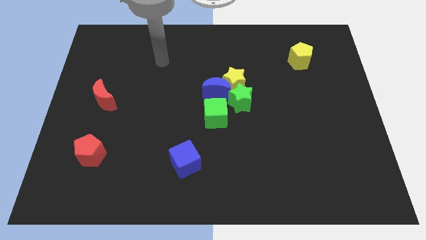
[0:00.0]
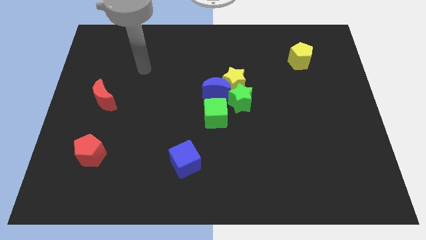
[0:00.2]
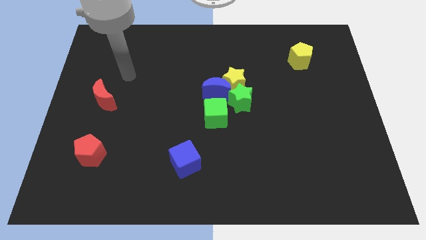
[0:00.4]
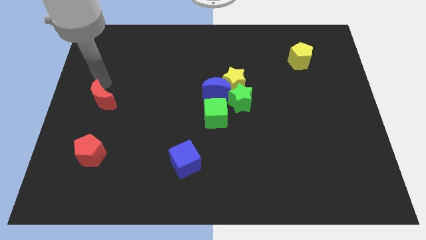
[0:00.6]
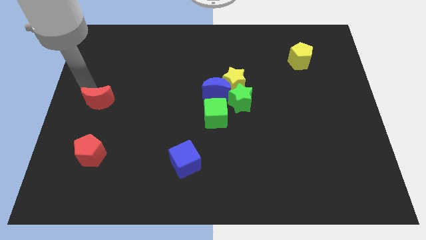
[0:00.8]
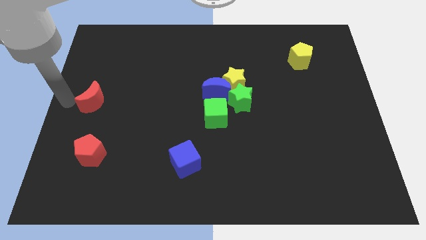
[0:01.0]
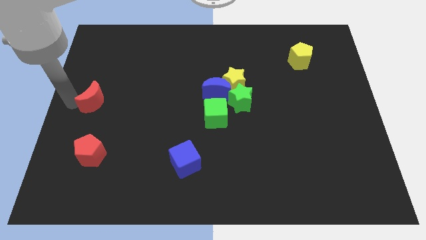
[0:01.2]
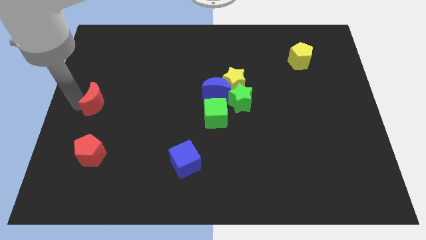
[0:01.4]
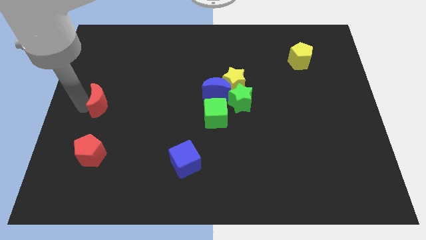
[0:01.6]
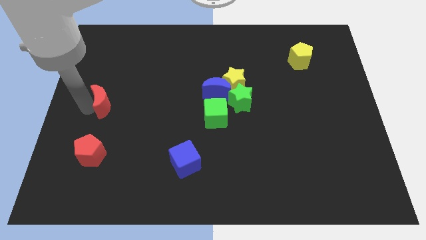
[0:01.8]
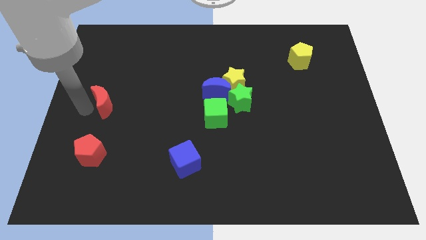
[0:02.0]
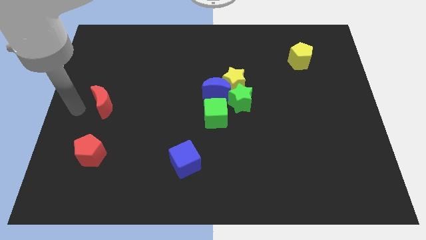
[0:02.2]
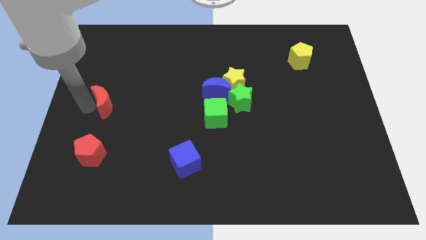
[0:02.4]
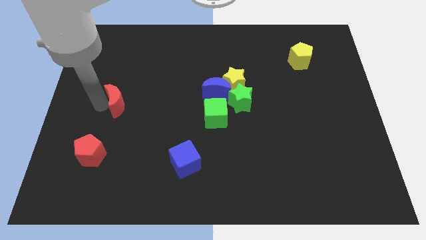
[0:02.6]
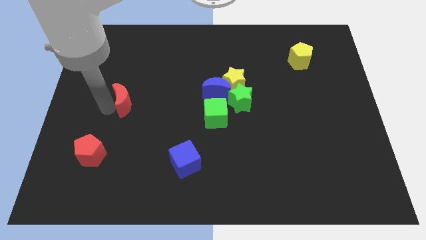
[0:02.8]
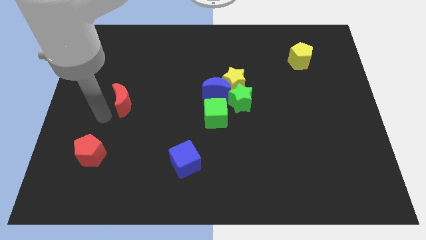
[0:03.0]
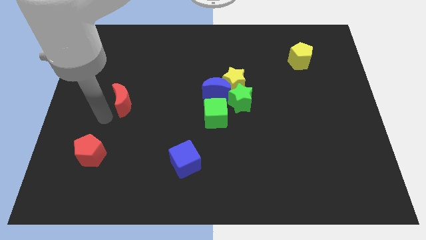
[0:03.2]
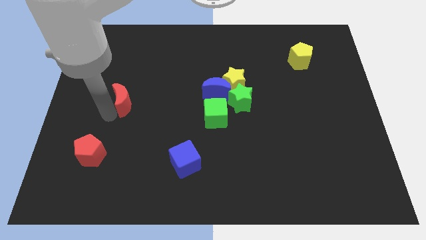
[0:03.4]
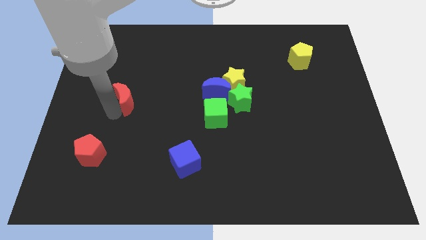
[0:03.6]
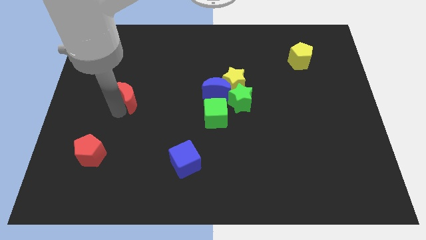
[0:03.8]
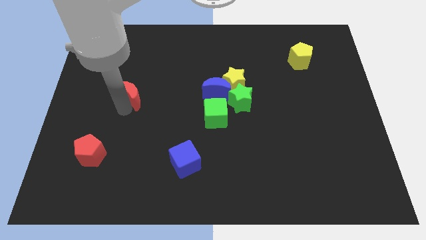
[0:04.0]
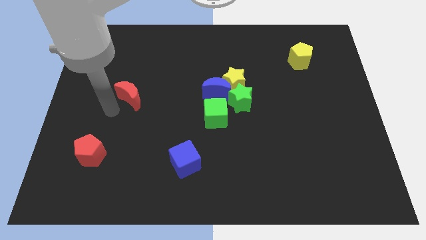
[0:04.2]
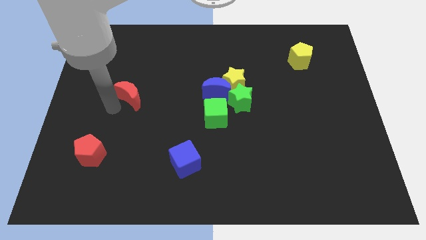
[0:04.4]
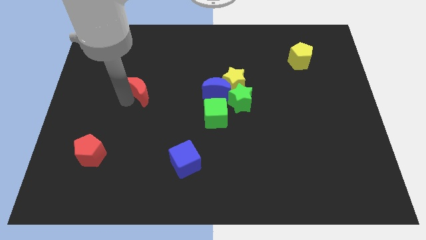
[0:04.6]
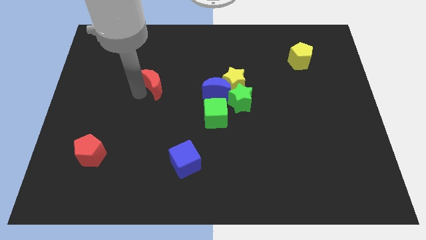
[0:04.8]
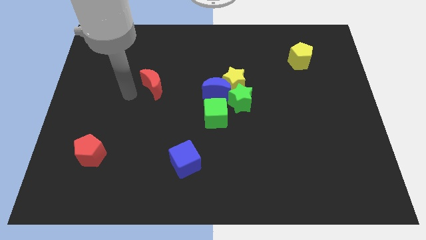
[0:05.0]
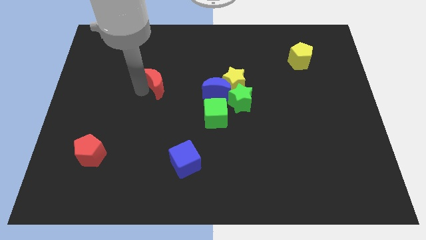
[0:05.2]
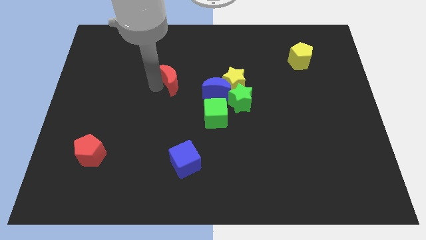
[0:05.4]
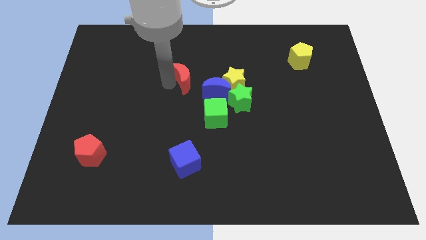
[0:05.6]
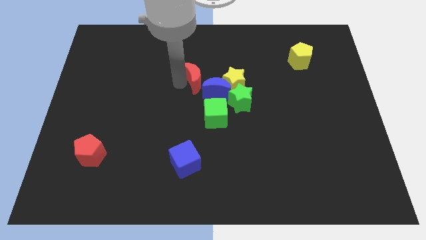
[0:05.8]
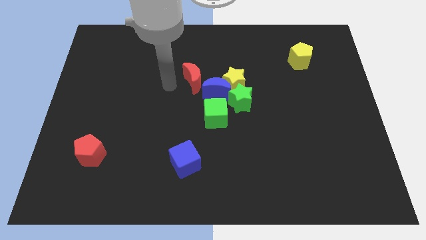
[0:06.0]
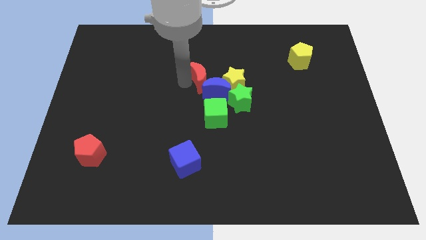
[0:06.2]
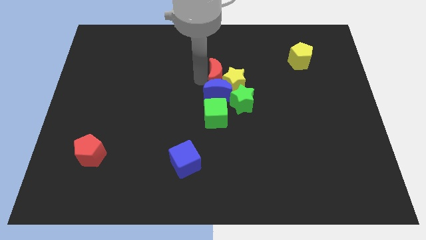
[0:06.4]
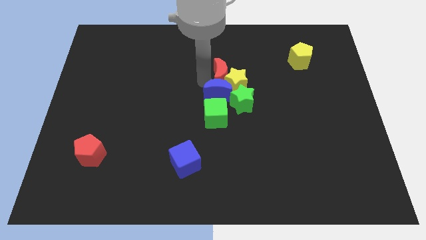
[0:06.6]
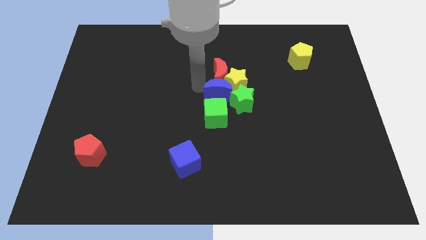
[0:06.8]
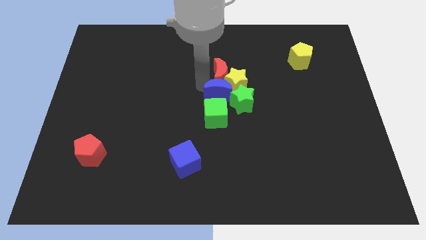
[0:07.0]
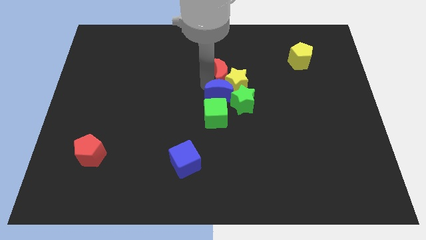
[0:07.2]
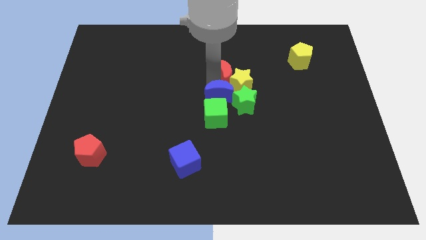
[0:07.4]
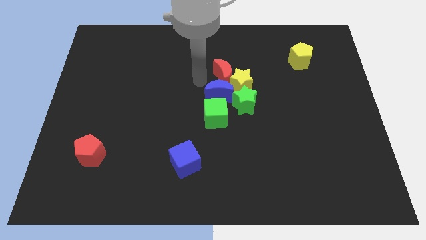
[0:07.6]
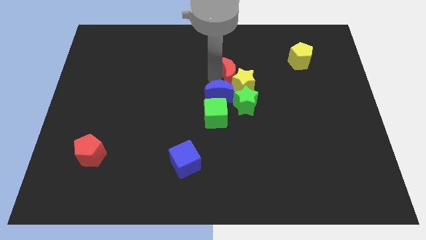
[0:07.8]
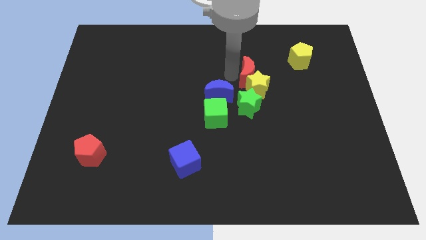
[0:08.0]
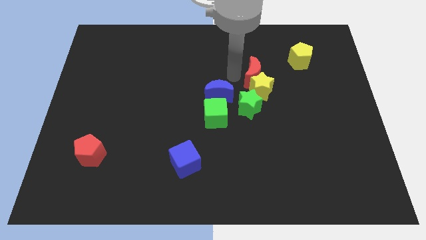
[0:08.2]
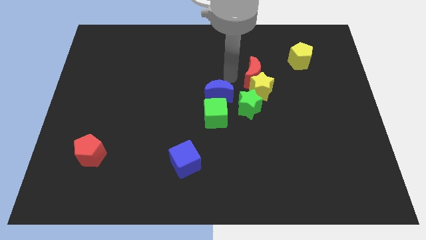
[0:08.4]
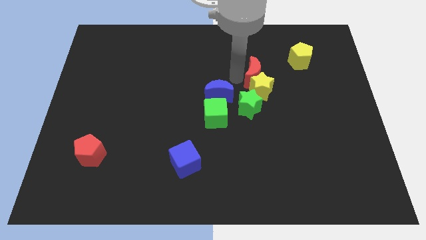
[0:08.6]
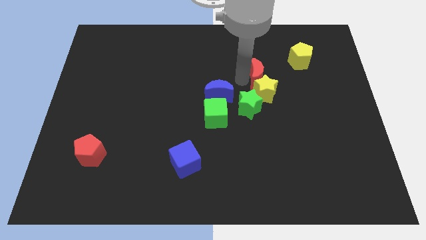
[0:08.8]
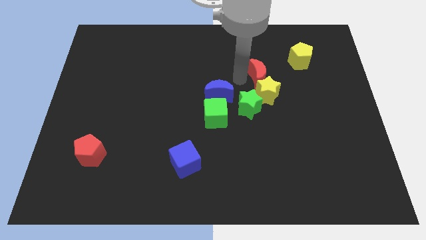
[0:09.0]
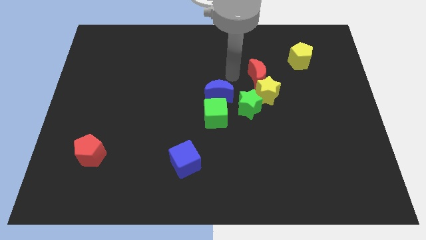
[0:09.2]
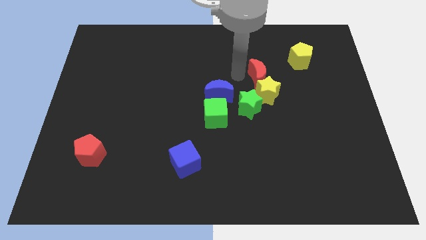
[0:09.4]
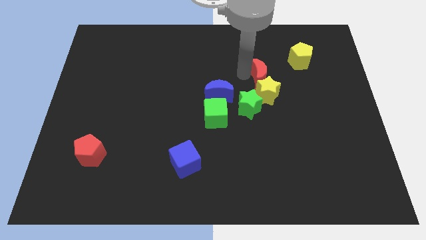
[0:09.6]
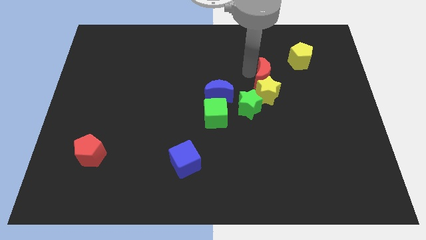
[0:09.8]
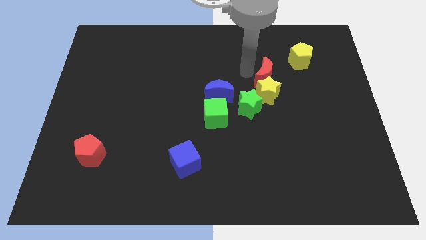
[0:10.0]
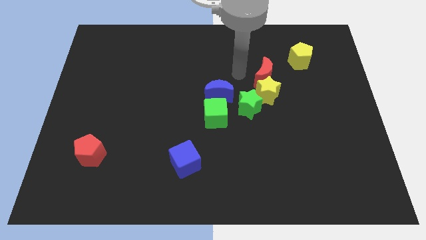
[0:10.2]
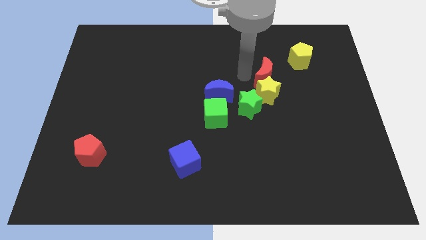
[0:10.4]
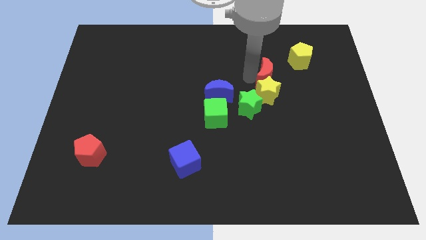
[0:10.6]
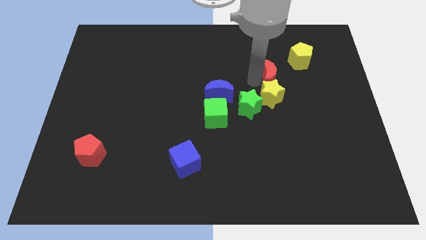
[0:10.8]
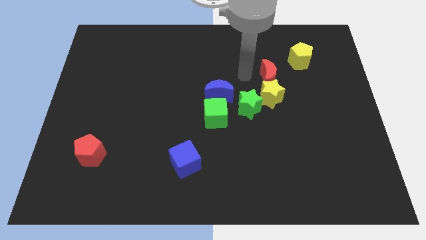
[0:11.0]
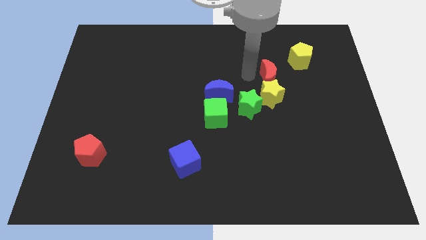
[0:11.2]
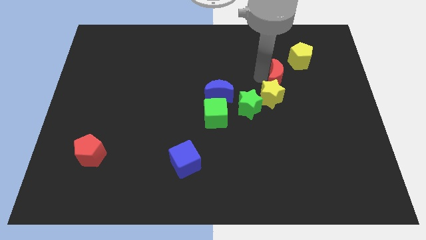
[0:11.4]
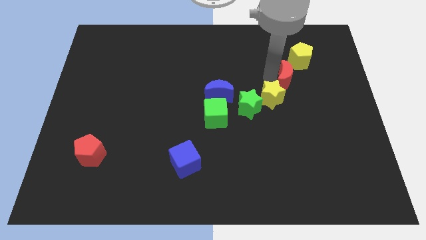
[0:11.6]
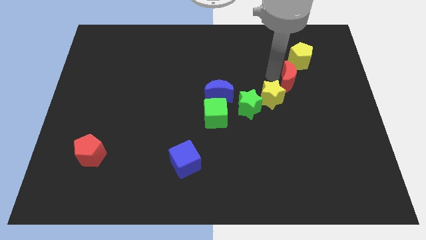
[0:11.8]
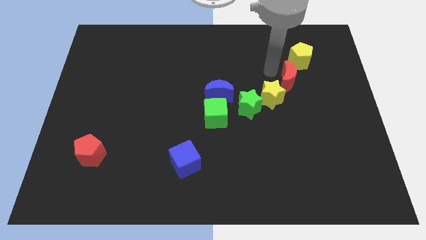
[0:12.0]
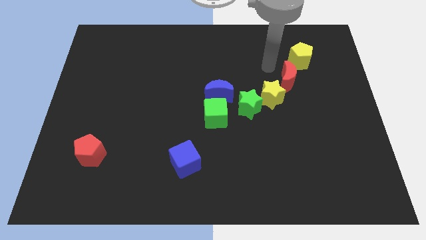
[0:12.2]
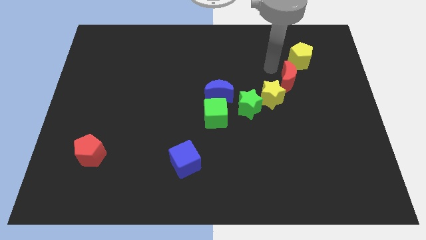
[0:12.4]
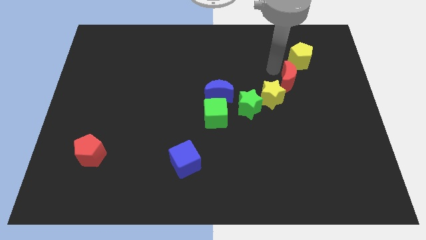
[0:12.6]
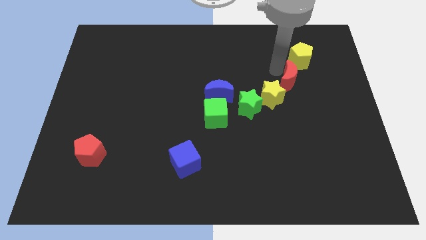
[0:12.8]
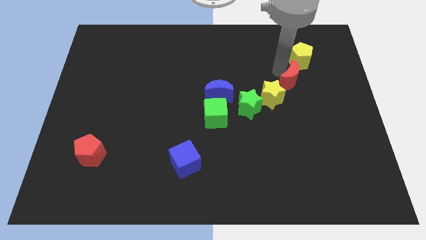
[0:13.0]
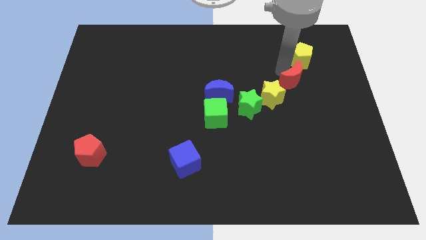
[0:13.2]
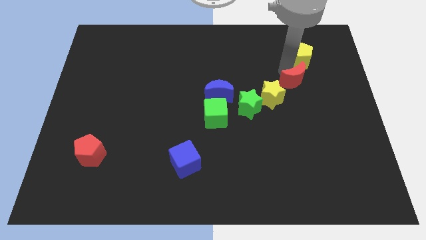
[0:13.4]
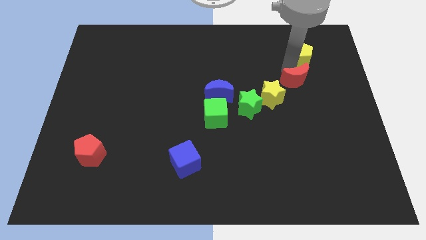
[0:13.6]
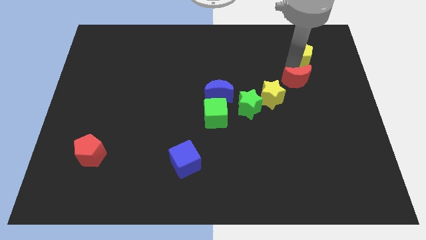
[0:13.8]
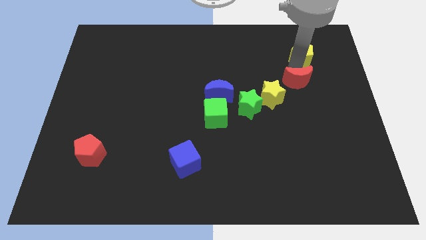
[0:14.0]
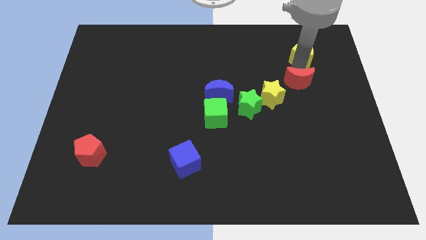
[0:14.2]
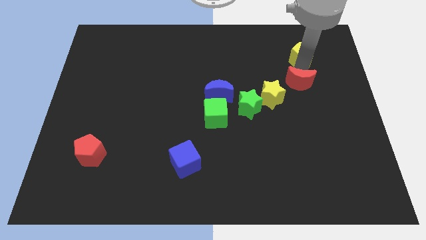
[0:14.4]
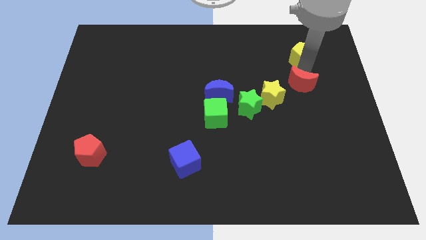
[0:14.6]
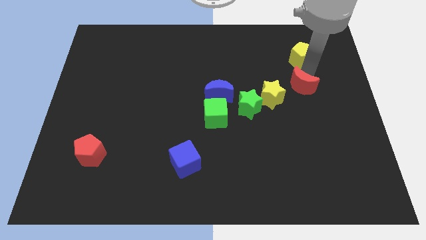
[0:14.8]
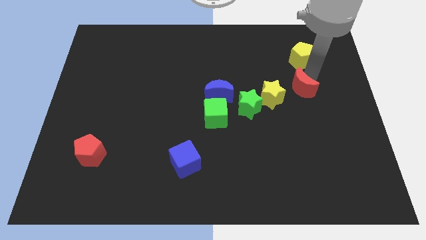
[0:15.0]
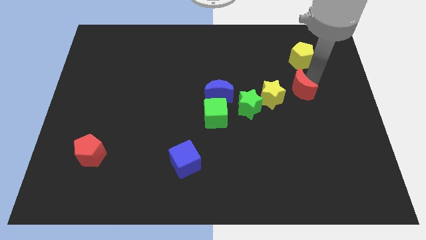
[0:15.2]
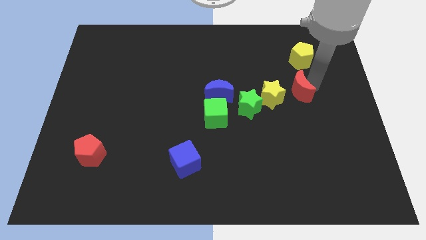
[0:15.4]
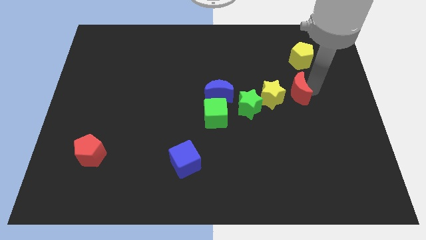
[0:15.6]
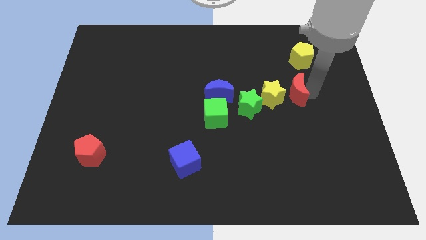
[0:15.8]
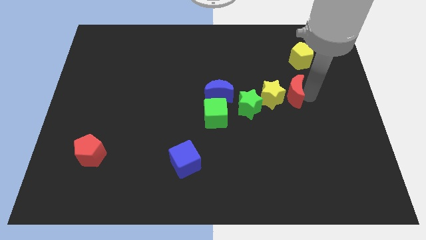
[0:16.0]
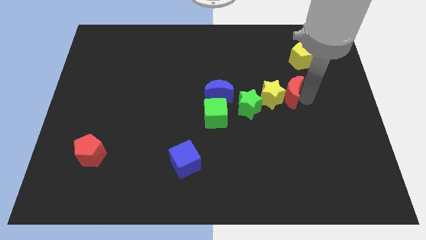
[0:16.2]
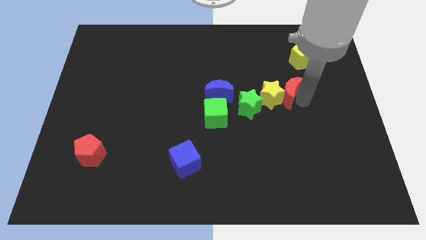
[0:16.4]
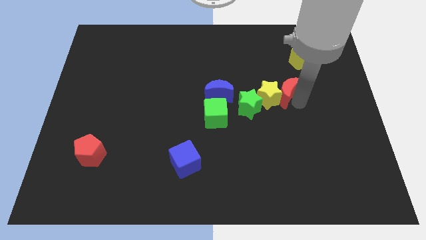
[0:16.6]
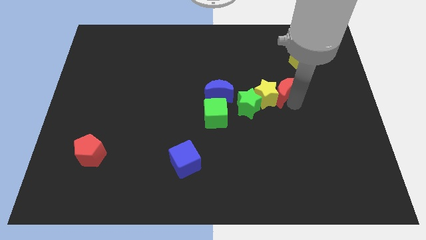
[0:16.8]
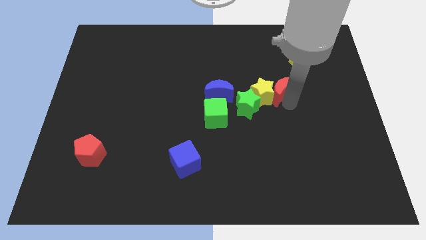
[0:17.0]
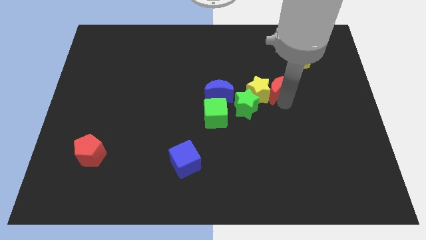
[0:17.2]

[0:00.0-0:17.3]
put the red moon to the top right of the yellow star
